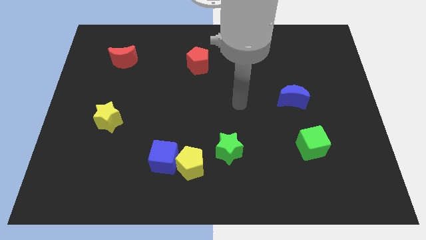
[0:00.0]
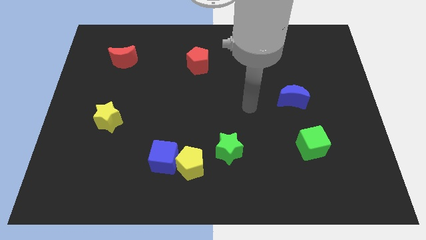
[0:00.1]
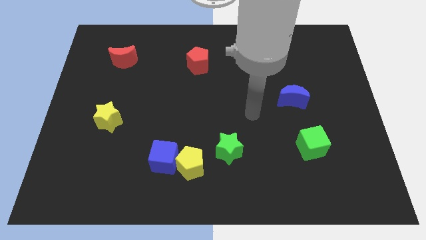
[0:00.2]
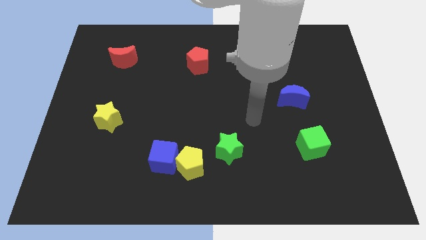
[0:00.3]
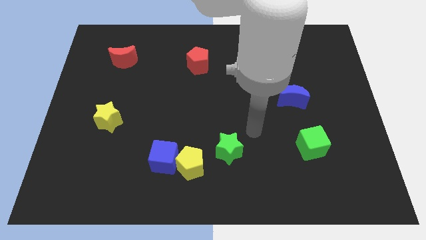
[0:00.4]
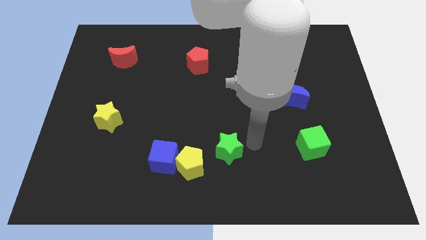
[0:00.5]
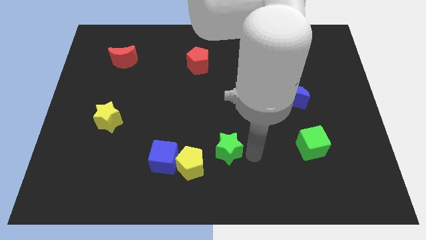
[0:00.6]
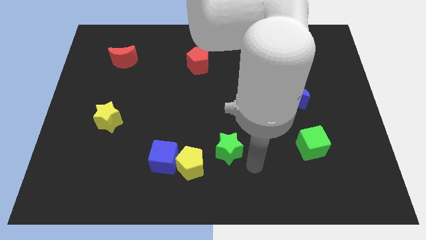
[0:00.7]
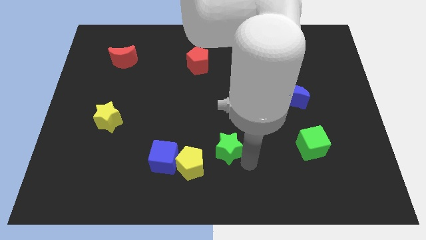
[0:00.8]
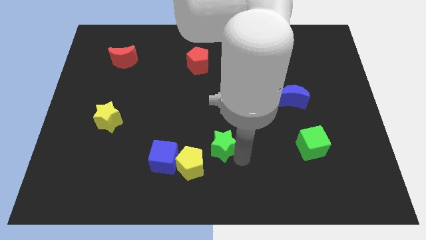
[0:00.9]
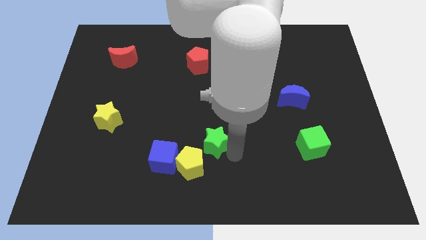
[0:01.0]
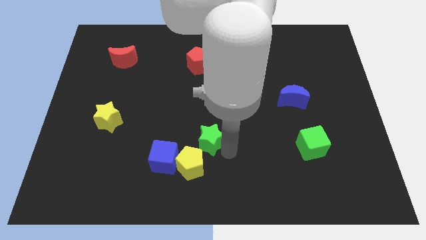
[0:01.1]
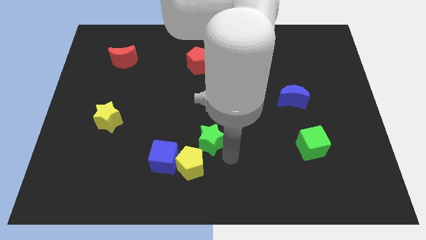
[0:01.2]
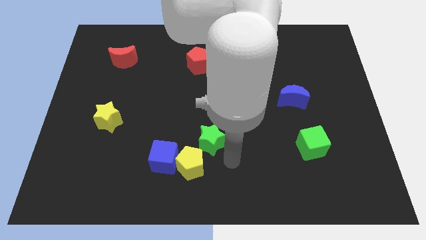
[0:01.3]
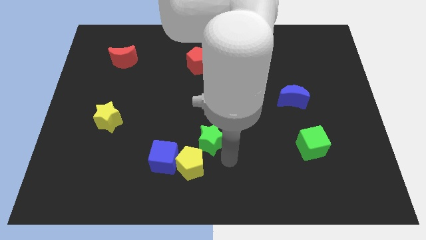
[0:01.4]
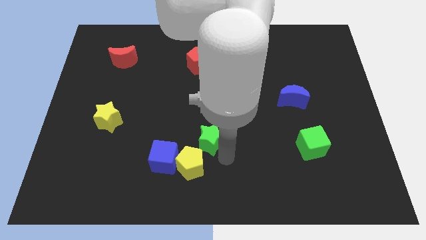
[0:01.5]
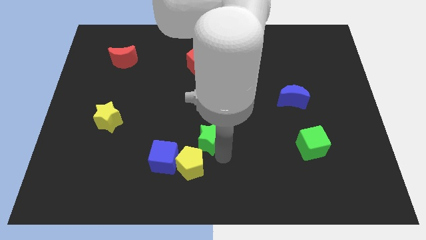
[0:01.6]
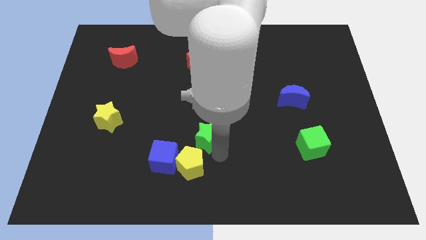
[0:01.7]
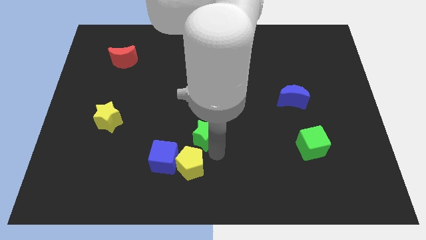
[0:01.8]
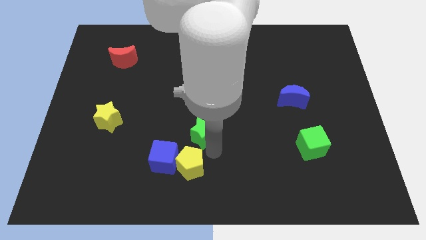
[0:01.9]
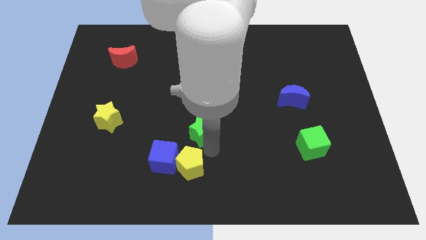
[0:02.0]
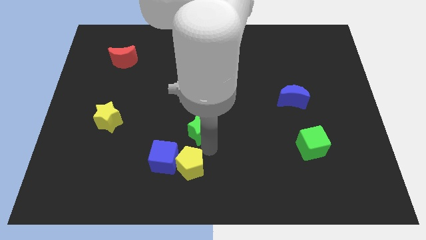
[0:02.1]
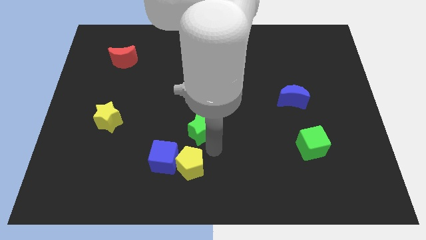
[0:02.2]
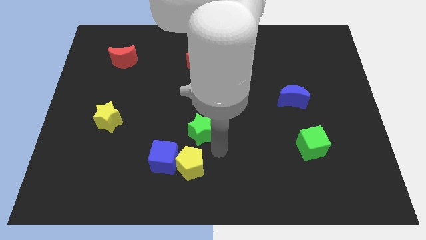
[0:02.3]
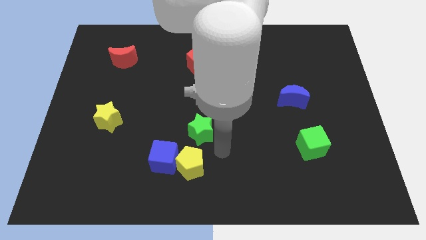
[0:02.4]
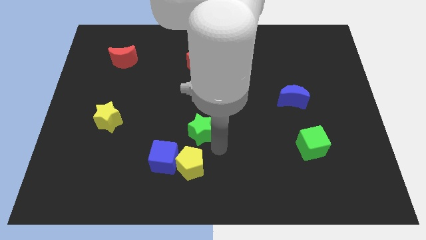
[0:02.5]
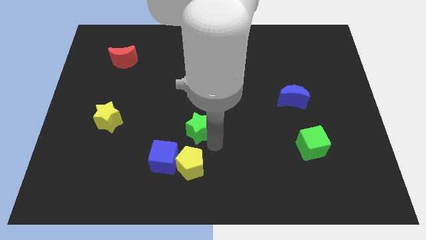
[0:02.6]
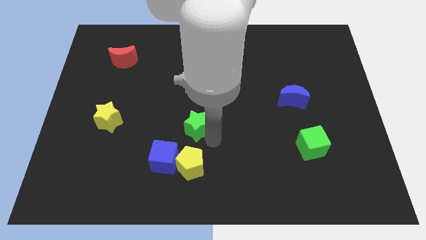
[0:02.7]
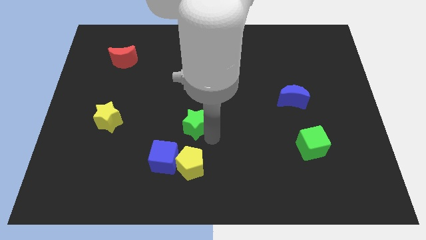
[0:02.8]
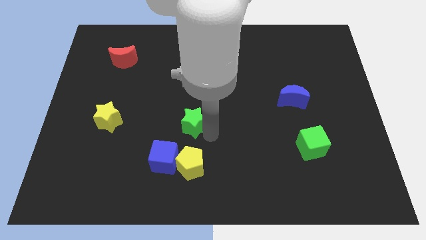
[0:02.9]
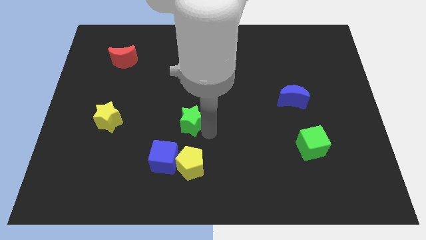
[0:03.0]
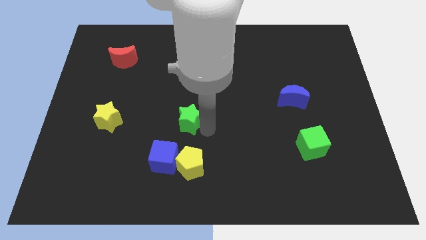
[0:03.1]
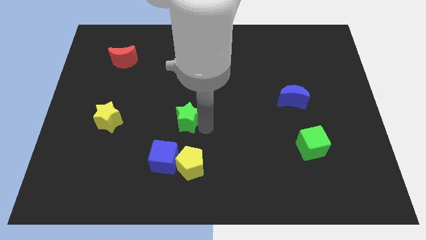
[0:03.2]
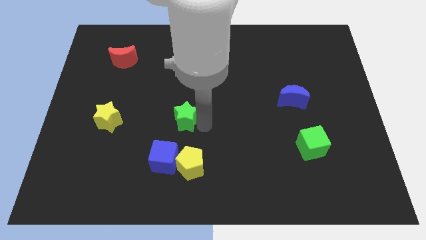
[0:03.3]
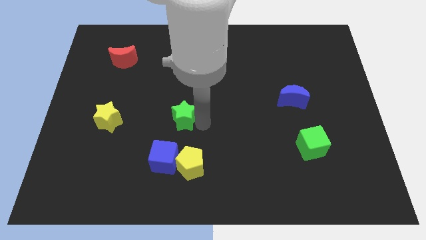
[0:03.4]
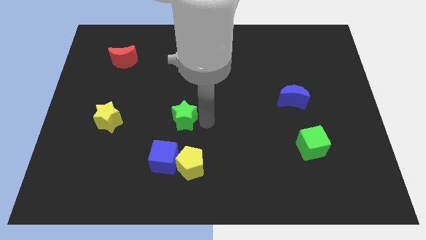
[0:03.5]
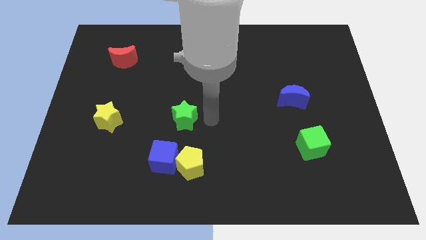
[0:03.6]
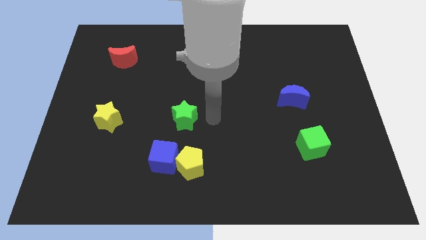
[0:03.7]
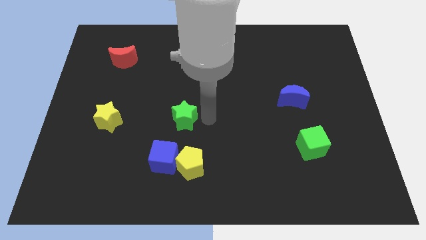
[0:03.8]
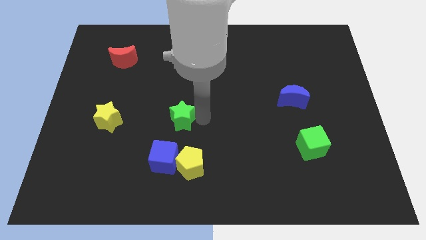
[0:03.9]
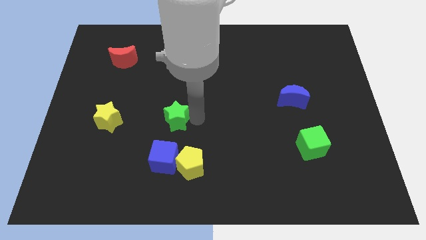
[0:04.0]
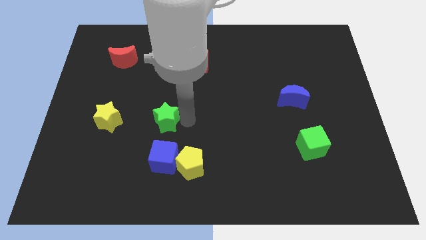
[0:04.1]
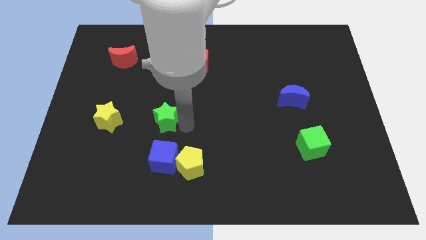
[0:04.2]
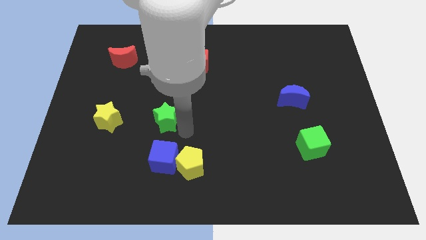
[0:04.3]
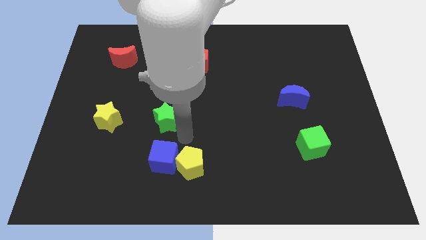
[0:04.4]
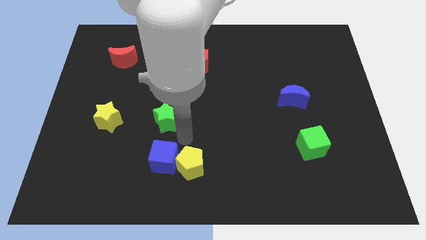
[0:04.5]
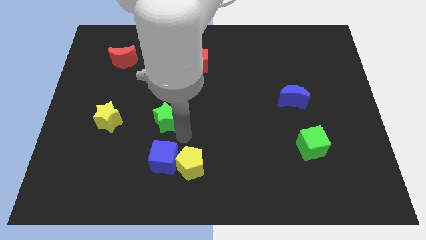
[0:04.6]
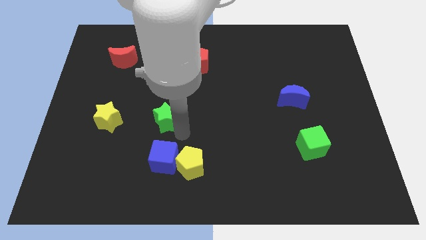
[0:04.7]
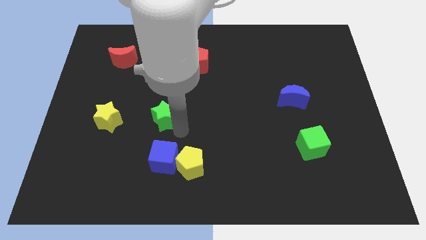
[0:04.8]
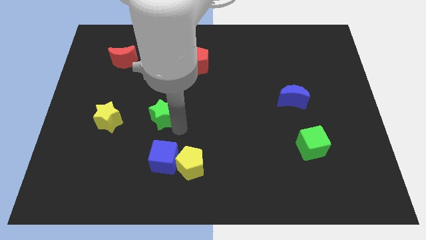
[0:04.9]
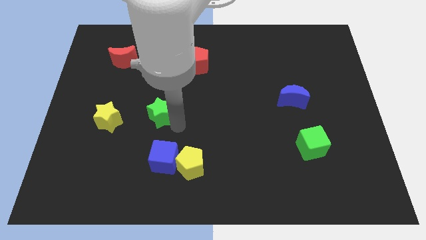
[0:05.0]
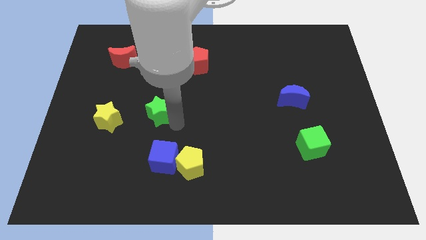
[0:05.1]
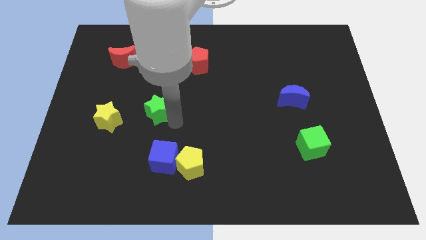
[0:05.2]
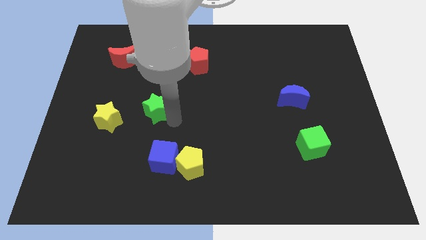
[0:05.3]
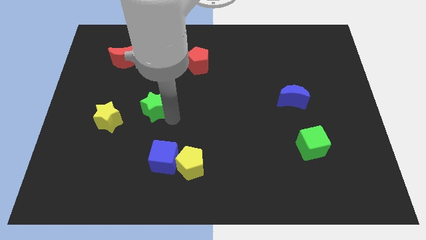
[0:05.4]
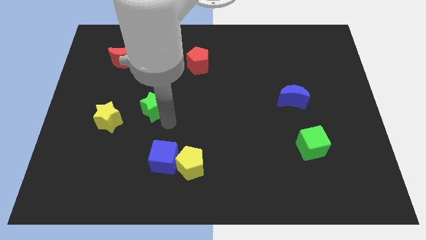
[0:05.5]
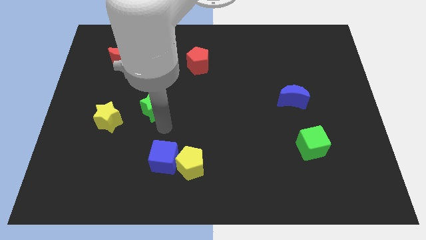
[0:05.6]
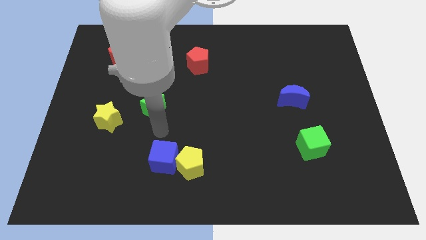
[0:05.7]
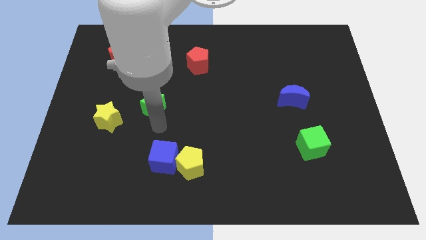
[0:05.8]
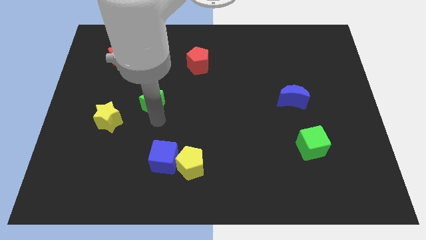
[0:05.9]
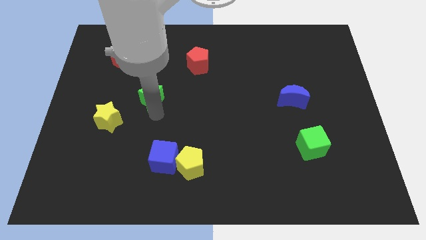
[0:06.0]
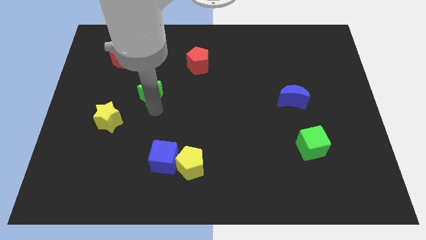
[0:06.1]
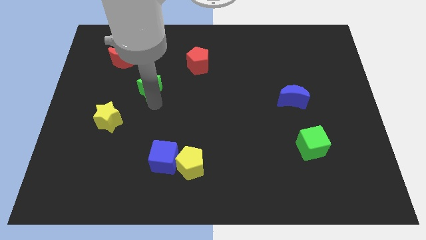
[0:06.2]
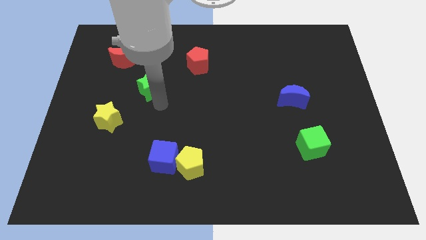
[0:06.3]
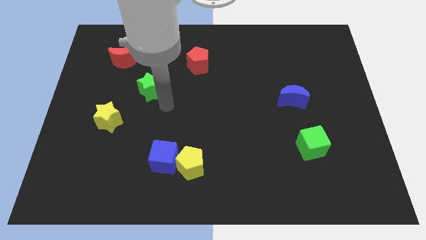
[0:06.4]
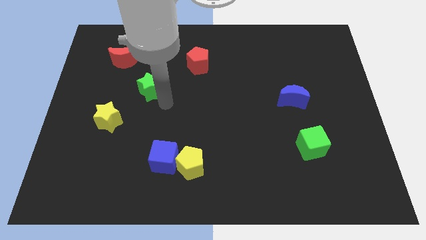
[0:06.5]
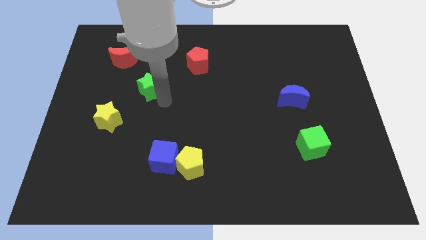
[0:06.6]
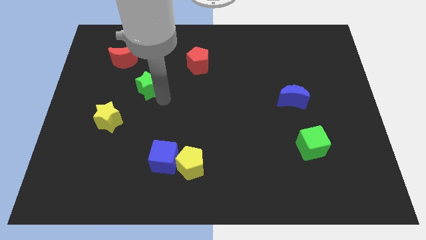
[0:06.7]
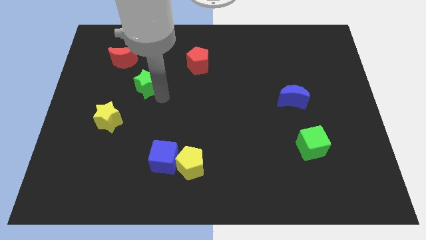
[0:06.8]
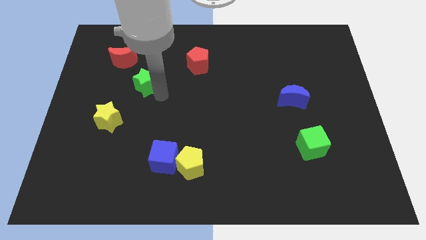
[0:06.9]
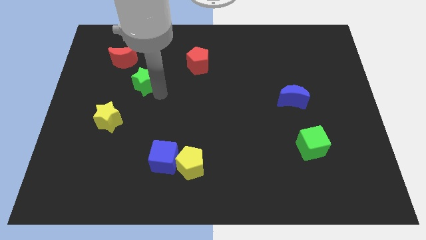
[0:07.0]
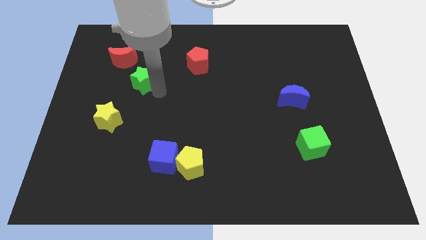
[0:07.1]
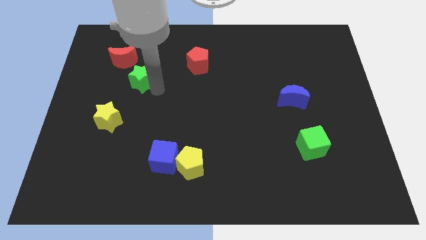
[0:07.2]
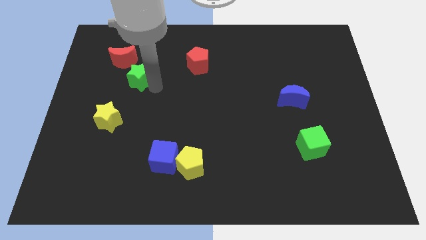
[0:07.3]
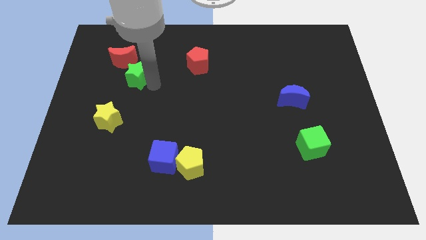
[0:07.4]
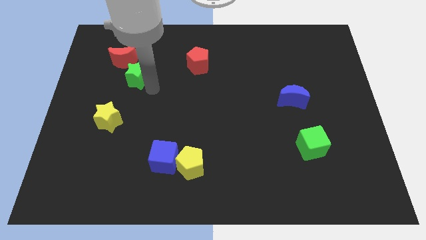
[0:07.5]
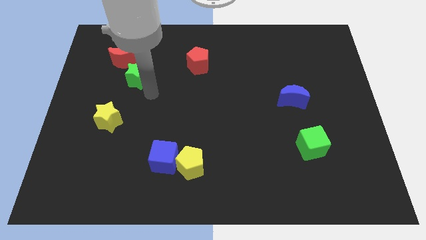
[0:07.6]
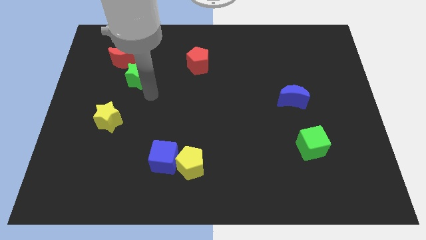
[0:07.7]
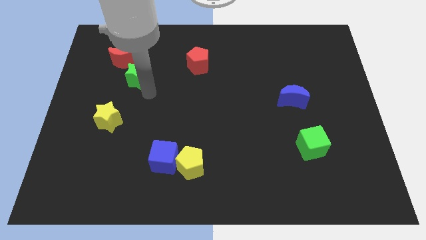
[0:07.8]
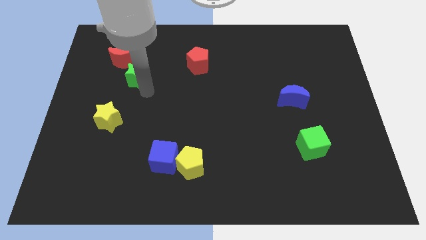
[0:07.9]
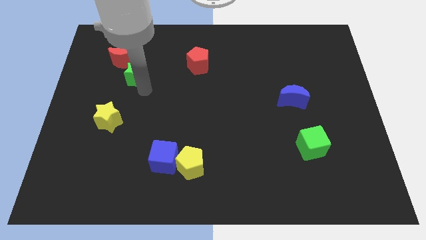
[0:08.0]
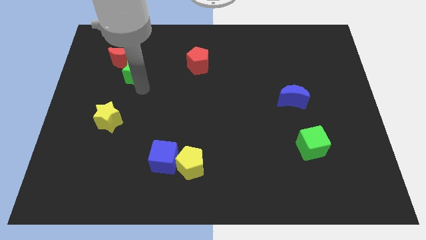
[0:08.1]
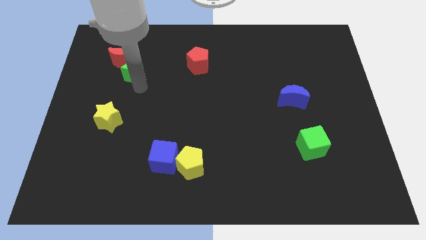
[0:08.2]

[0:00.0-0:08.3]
slide the green star next to the red moon
